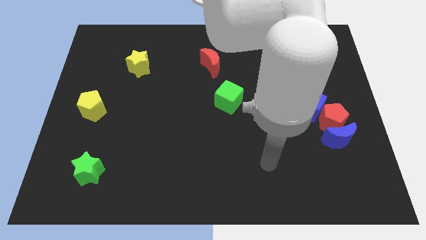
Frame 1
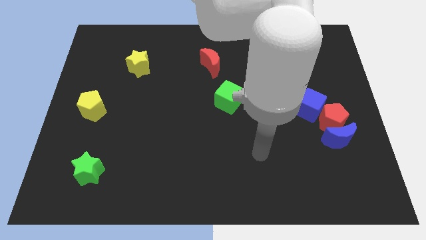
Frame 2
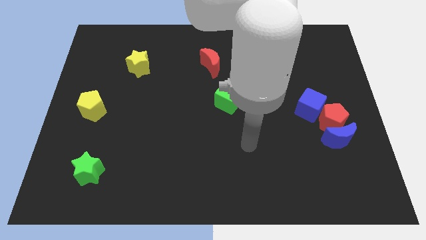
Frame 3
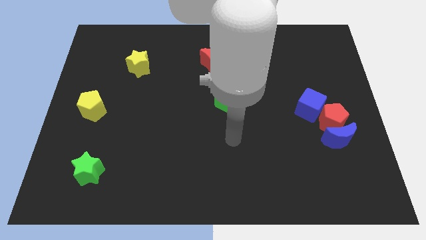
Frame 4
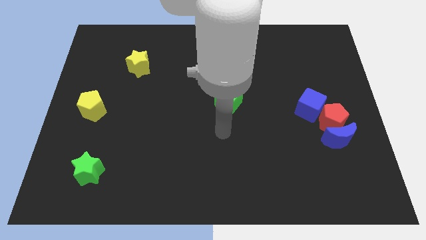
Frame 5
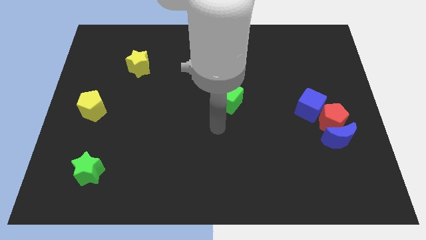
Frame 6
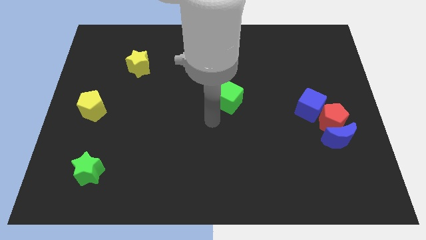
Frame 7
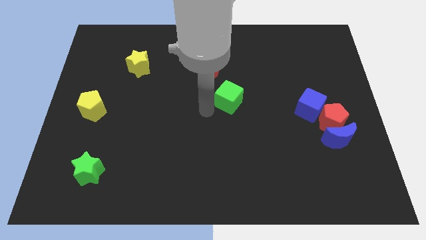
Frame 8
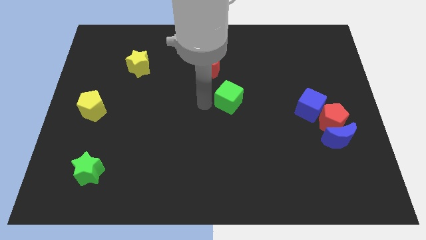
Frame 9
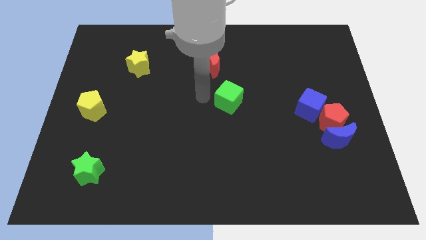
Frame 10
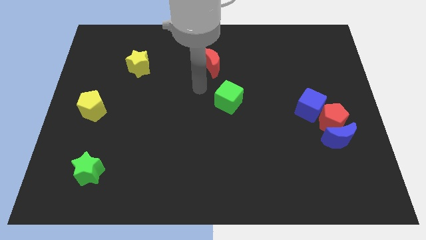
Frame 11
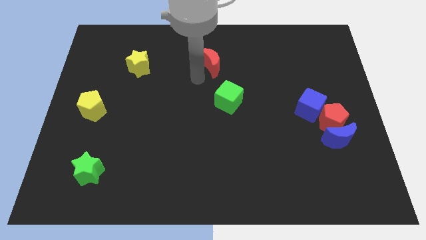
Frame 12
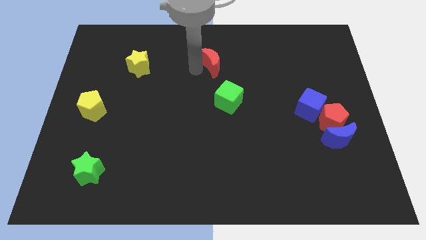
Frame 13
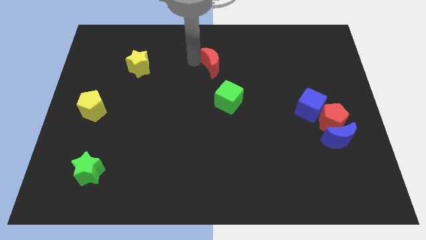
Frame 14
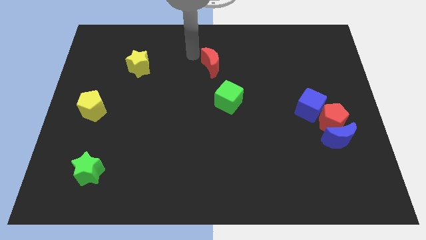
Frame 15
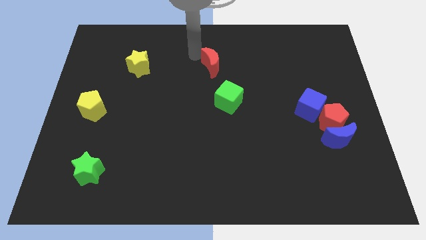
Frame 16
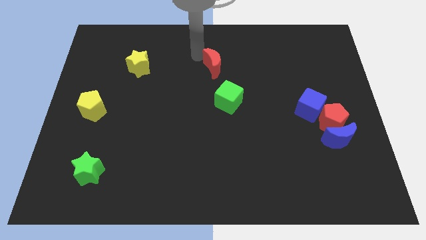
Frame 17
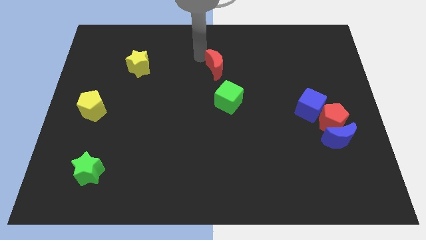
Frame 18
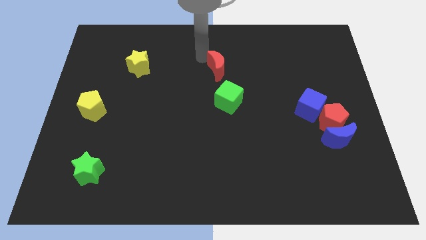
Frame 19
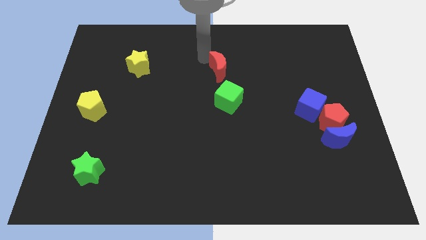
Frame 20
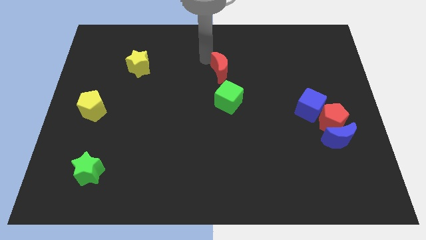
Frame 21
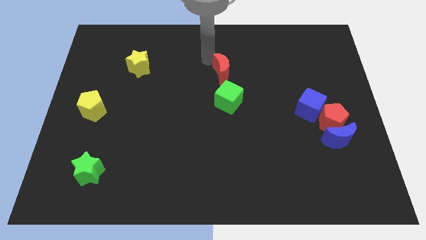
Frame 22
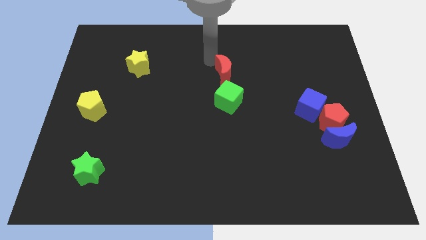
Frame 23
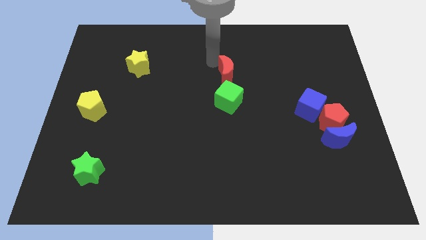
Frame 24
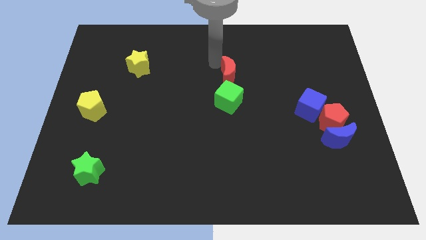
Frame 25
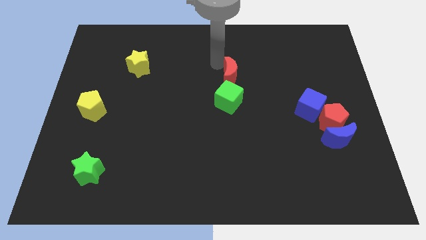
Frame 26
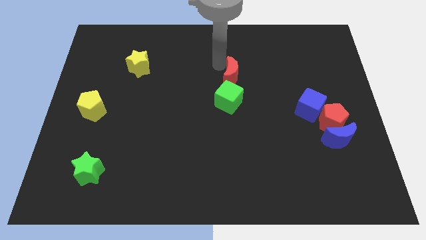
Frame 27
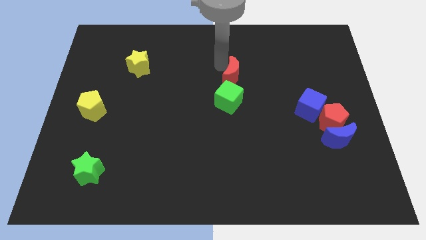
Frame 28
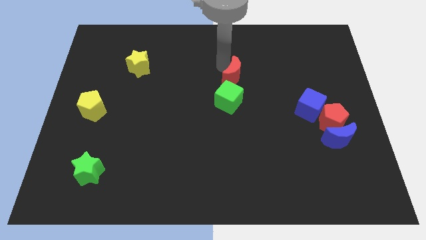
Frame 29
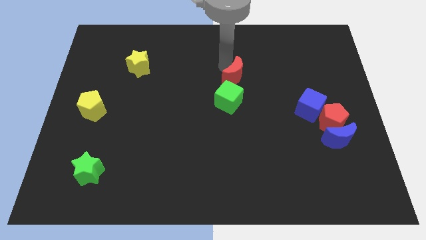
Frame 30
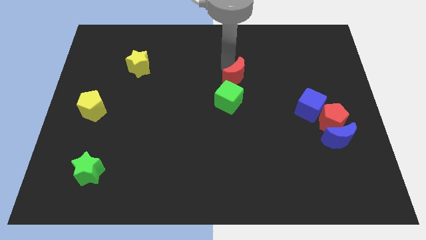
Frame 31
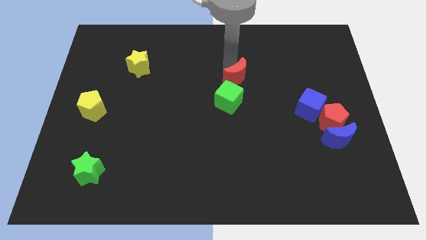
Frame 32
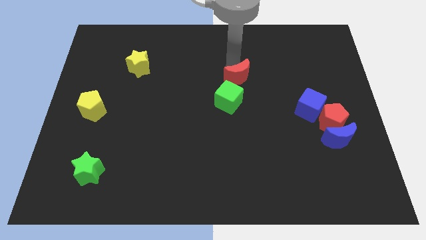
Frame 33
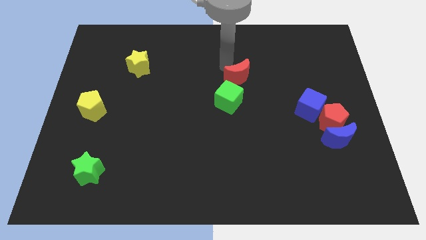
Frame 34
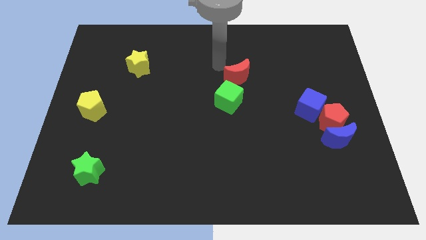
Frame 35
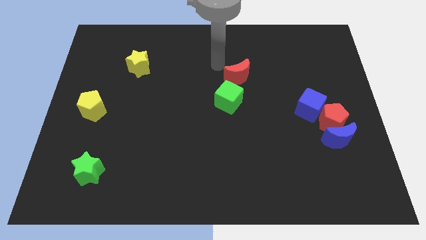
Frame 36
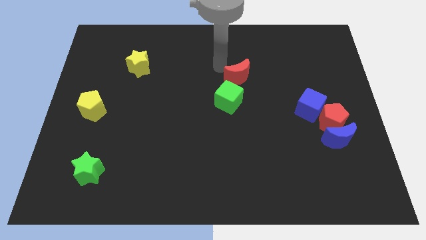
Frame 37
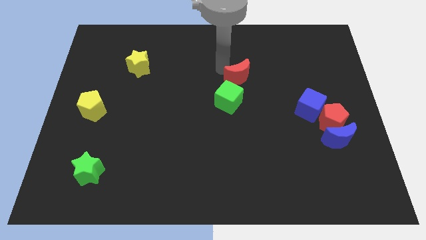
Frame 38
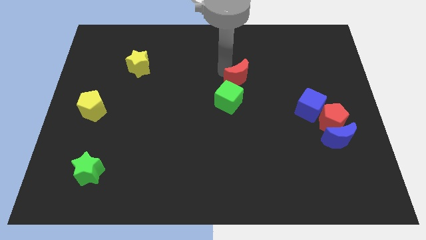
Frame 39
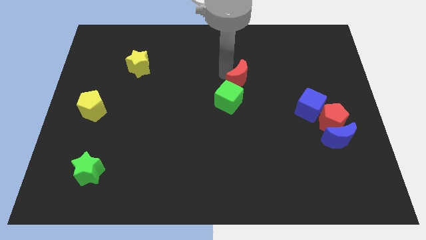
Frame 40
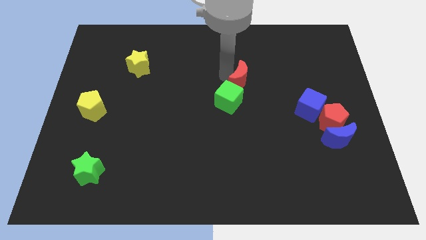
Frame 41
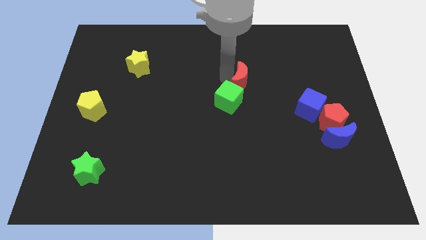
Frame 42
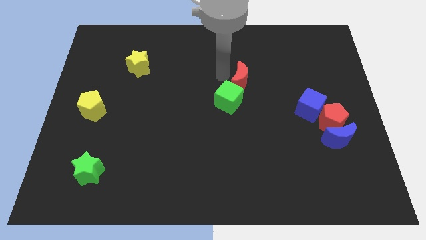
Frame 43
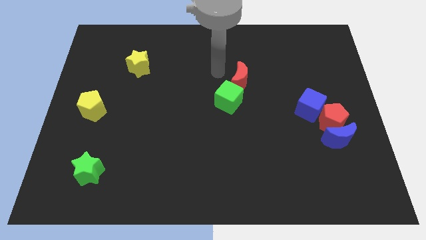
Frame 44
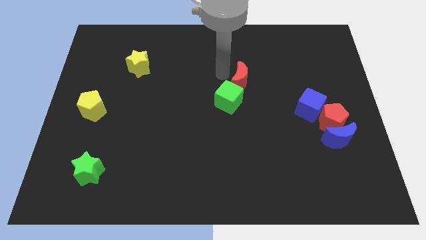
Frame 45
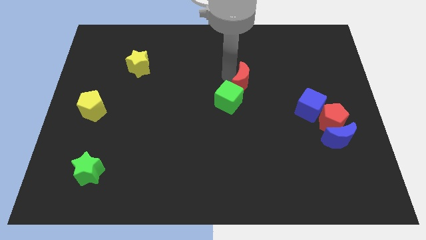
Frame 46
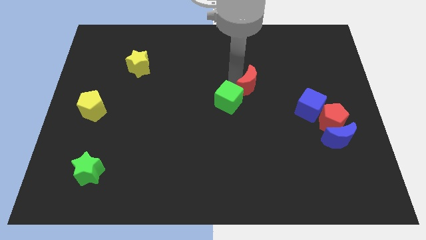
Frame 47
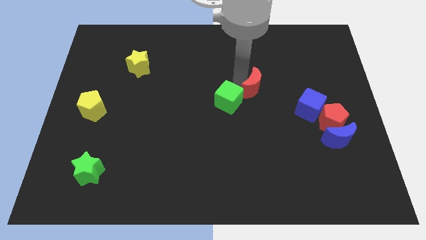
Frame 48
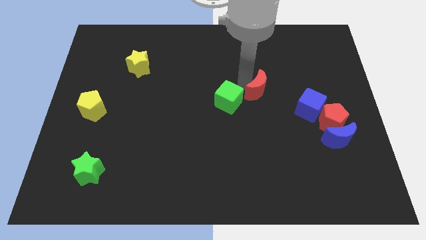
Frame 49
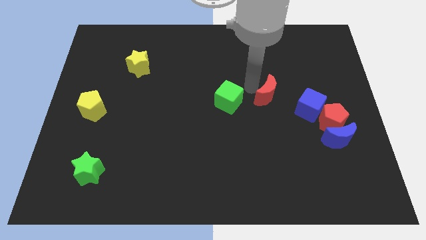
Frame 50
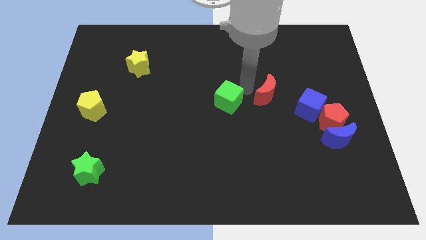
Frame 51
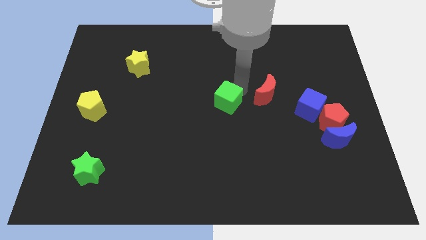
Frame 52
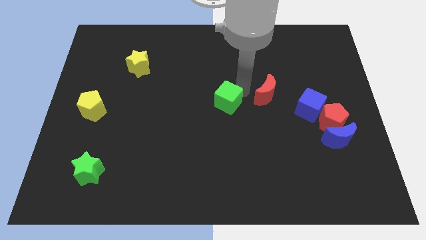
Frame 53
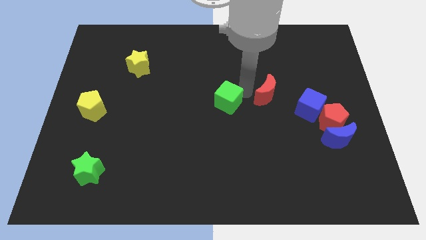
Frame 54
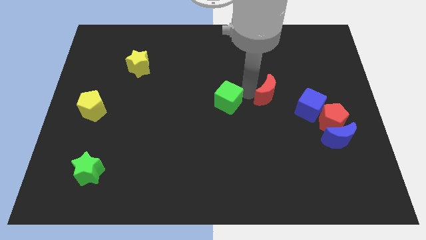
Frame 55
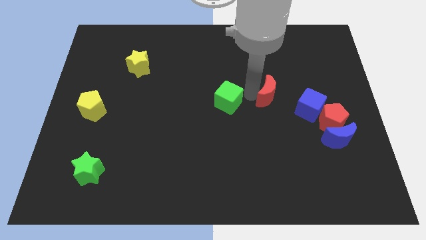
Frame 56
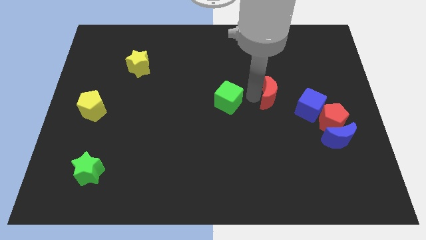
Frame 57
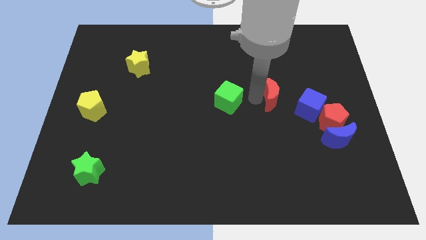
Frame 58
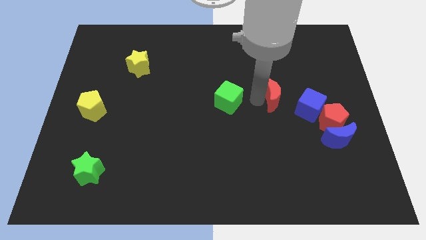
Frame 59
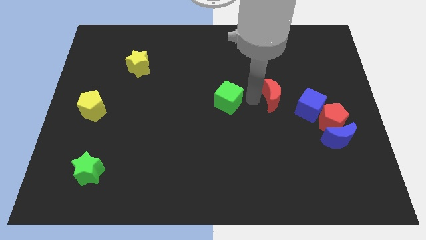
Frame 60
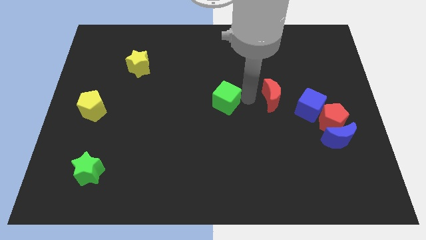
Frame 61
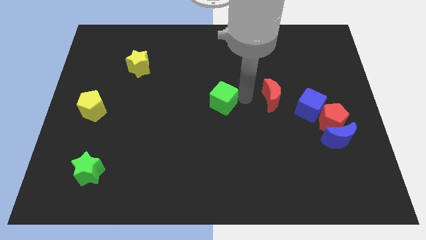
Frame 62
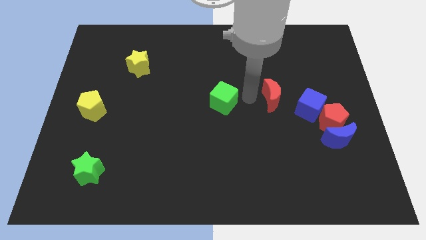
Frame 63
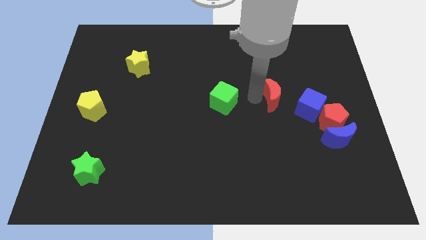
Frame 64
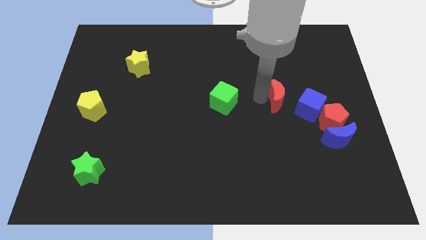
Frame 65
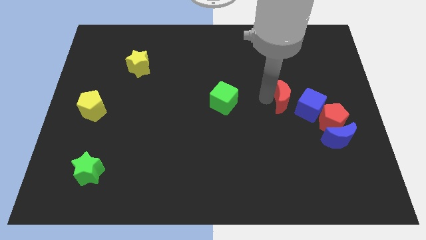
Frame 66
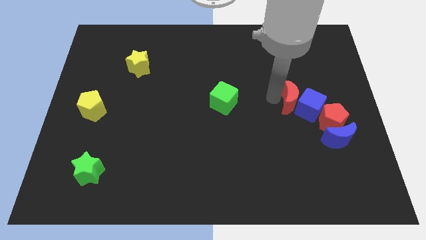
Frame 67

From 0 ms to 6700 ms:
slide the red moon close to the blue cube

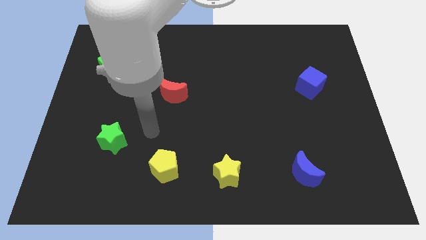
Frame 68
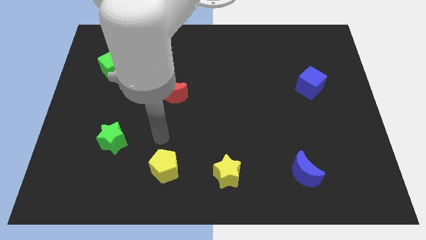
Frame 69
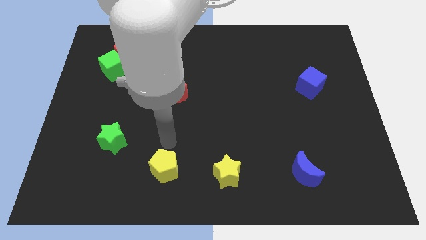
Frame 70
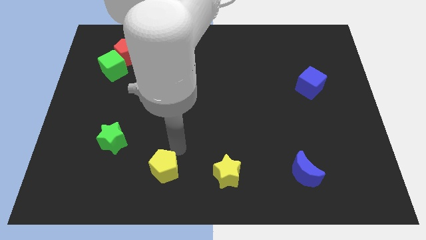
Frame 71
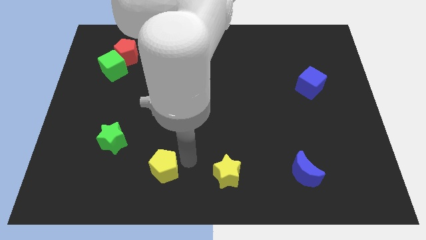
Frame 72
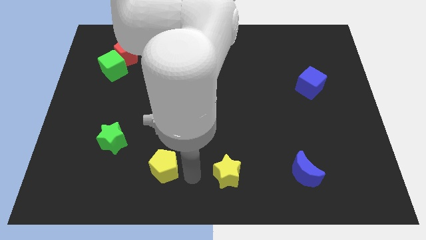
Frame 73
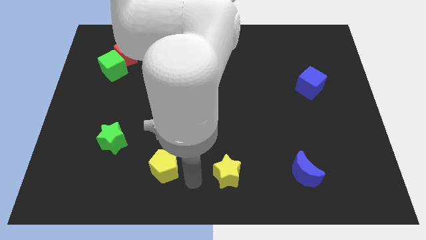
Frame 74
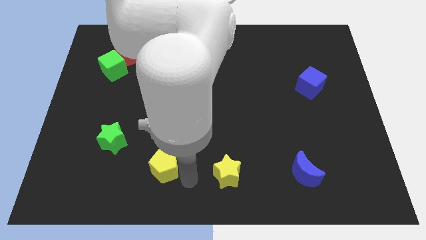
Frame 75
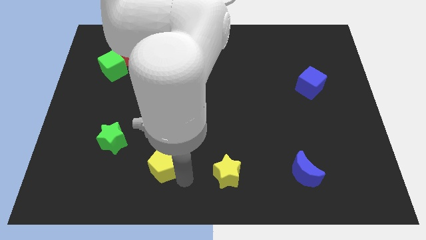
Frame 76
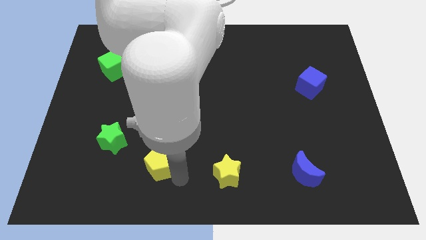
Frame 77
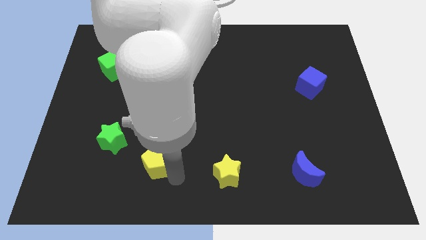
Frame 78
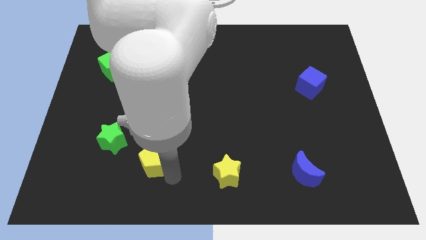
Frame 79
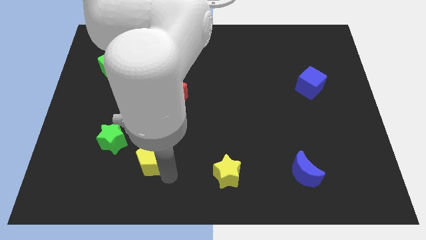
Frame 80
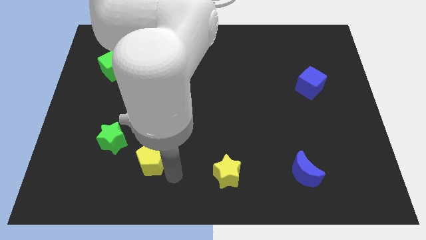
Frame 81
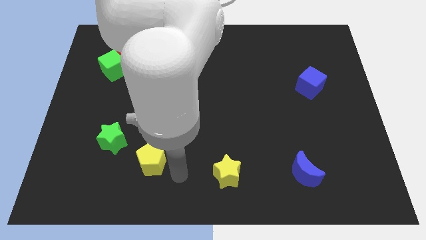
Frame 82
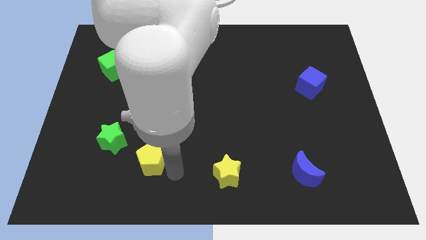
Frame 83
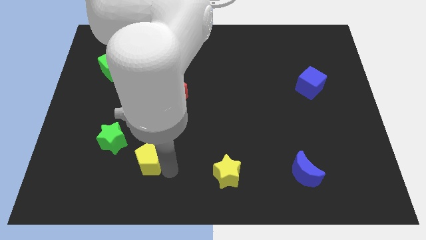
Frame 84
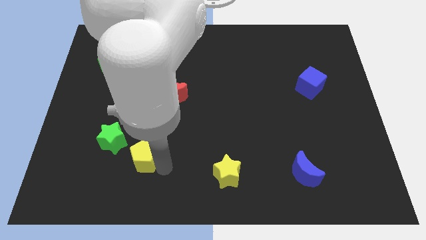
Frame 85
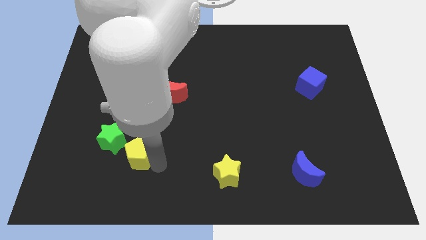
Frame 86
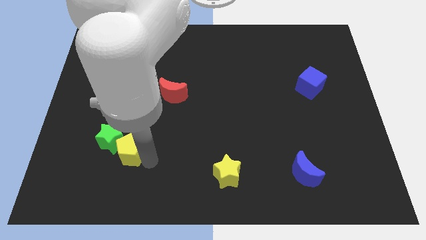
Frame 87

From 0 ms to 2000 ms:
move the yellow pentagon to the green star
